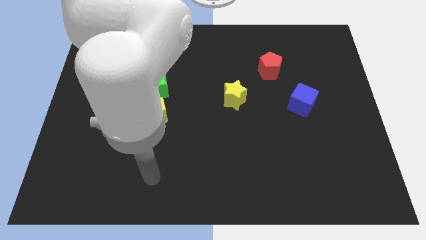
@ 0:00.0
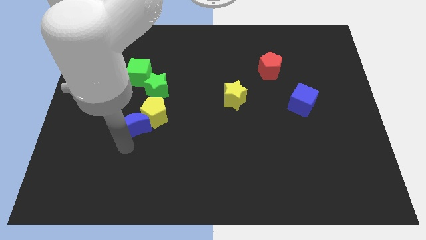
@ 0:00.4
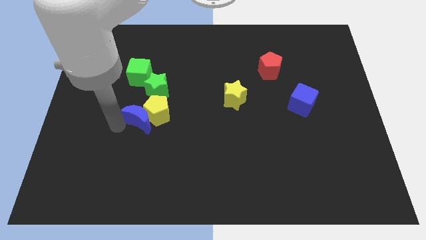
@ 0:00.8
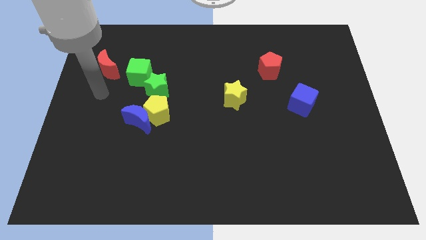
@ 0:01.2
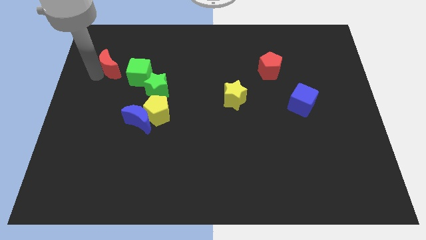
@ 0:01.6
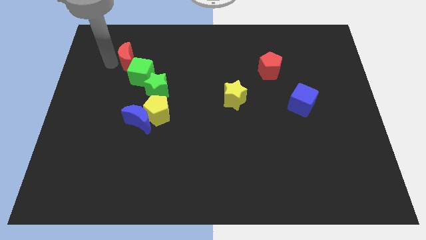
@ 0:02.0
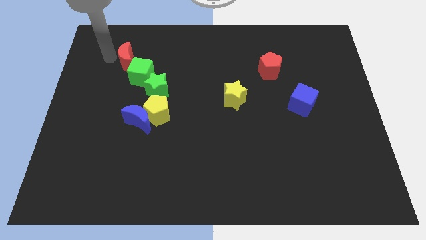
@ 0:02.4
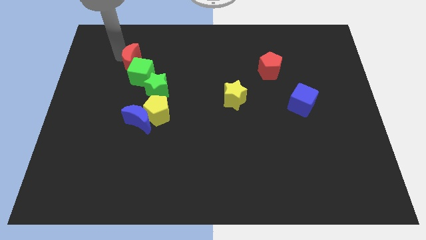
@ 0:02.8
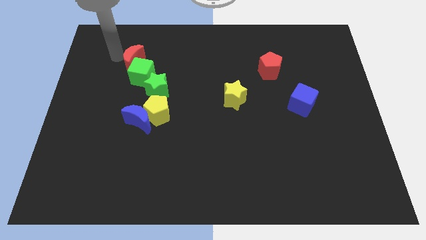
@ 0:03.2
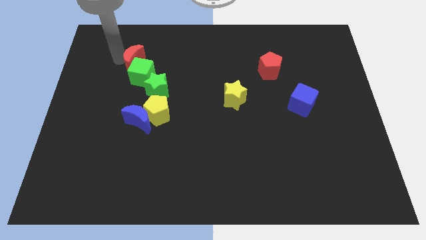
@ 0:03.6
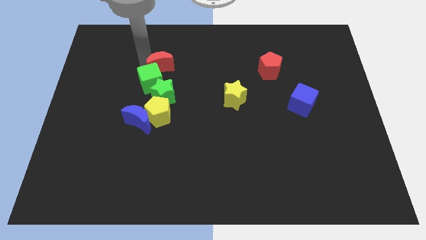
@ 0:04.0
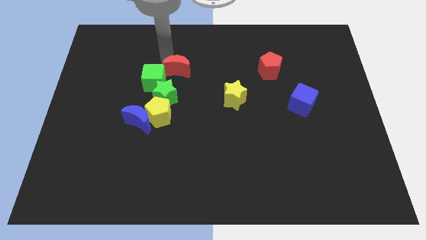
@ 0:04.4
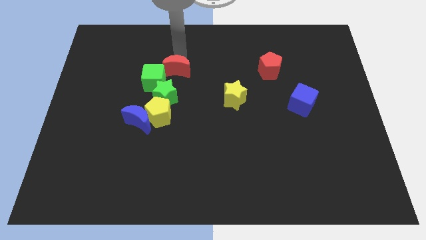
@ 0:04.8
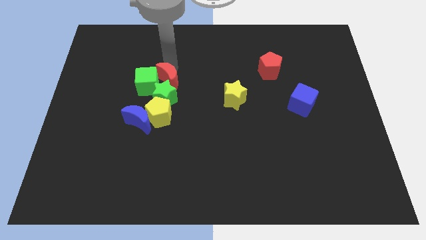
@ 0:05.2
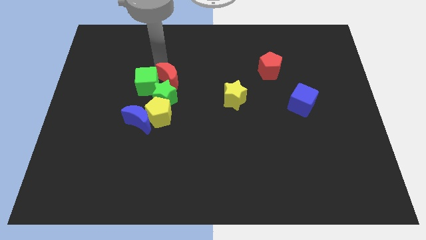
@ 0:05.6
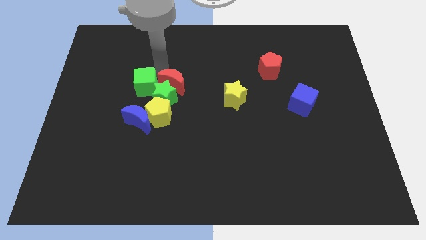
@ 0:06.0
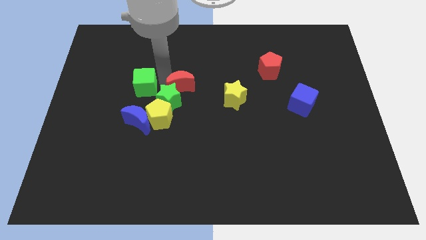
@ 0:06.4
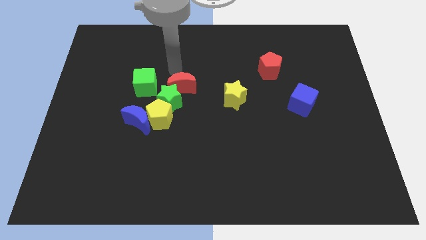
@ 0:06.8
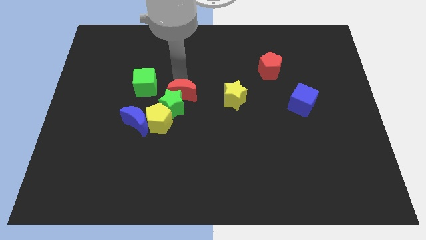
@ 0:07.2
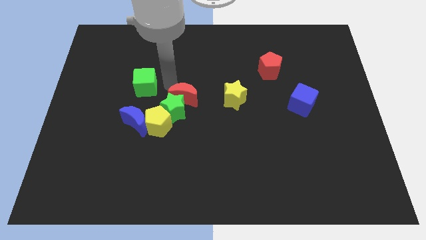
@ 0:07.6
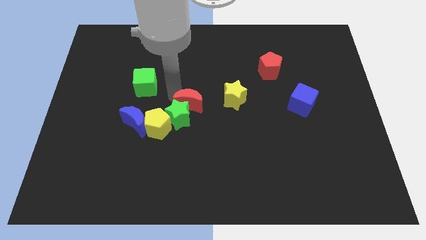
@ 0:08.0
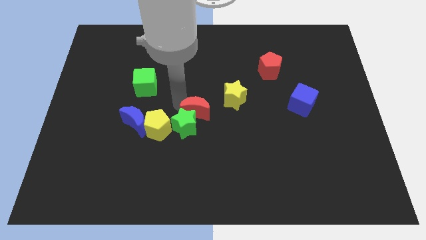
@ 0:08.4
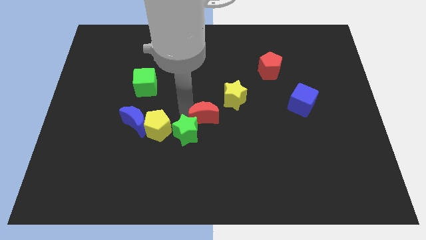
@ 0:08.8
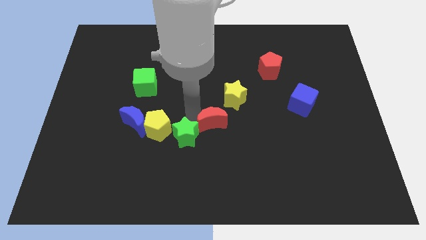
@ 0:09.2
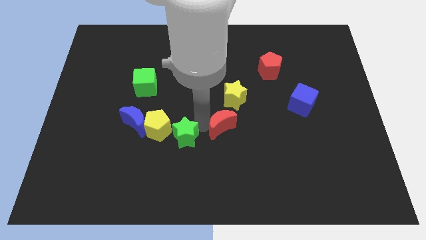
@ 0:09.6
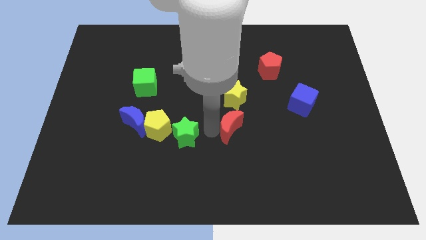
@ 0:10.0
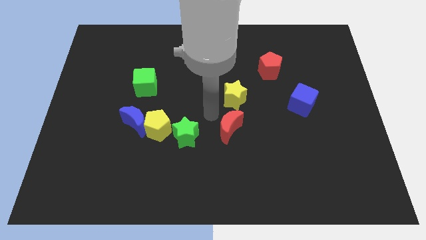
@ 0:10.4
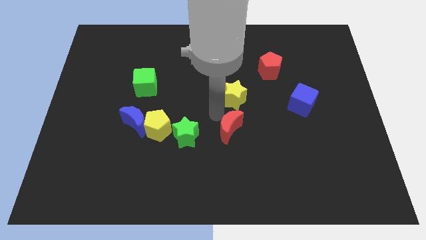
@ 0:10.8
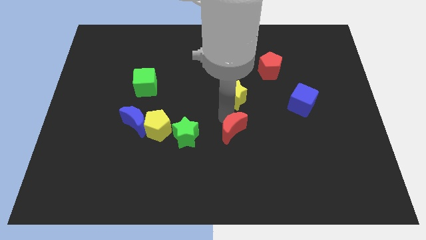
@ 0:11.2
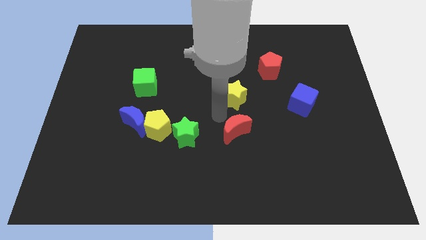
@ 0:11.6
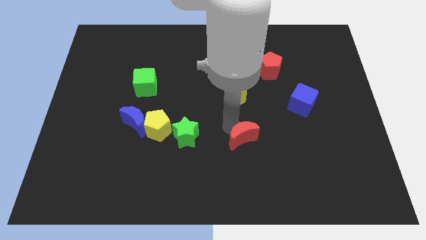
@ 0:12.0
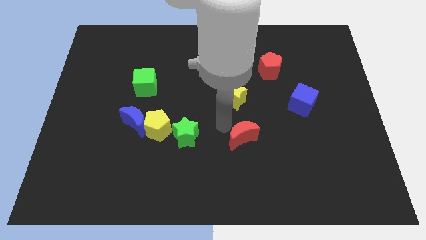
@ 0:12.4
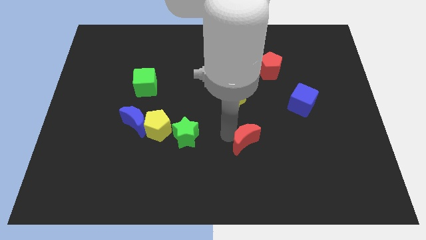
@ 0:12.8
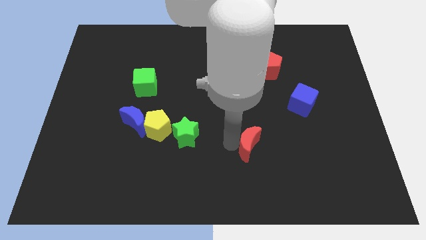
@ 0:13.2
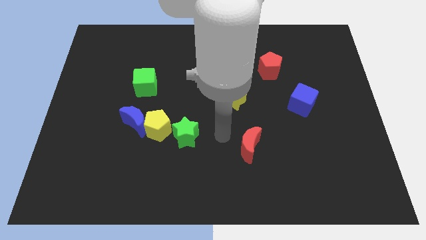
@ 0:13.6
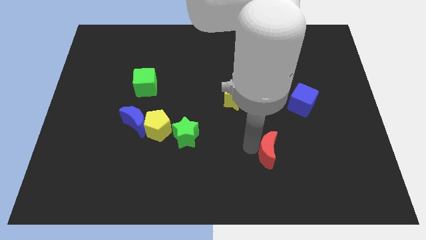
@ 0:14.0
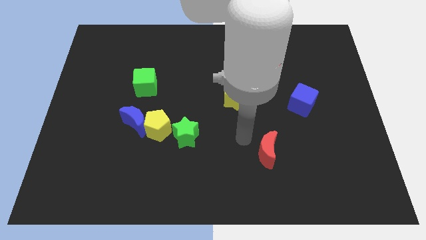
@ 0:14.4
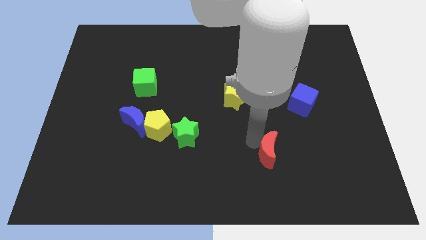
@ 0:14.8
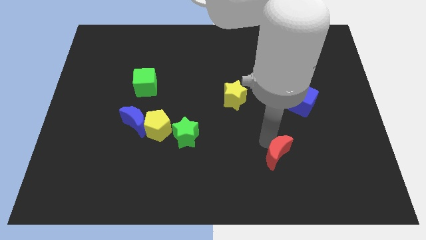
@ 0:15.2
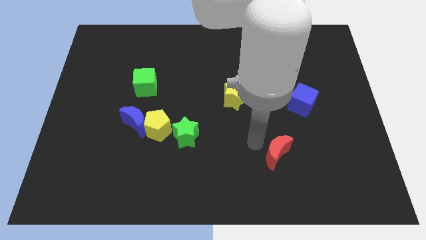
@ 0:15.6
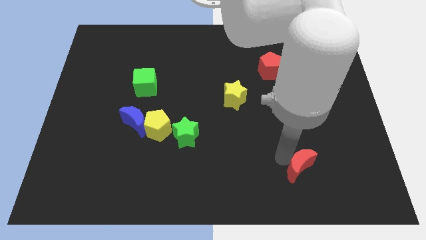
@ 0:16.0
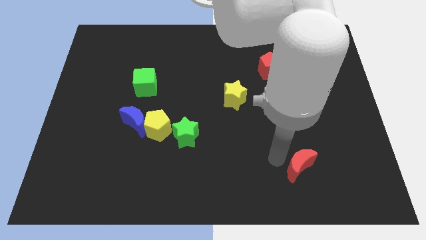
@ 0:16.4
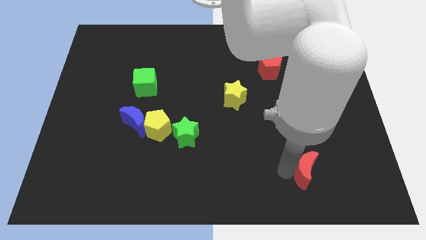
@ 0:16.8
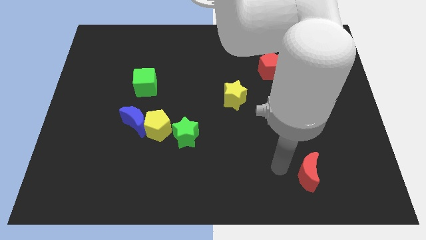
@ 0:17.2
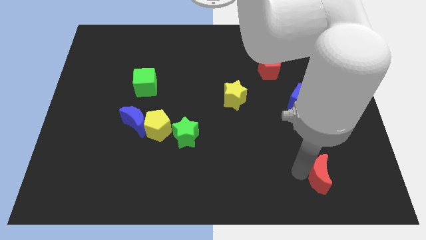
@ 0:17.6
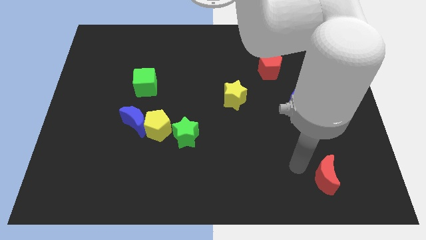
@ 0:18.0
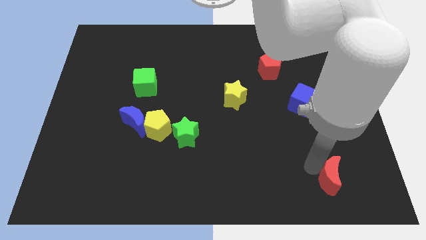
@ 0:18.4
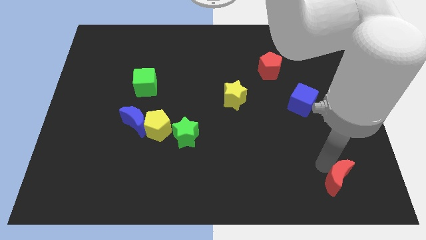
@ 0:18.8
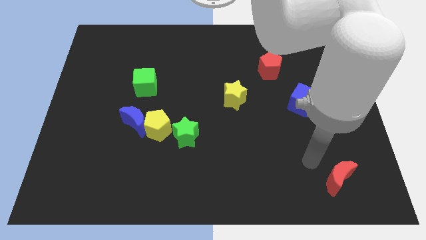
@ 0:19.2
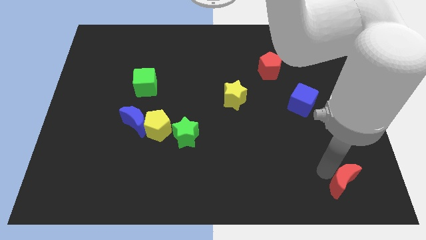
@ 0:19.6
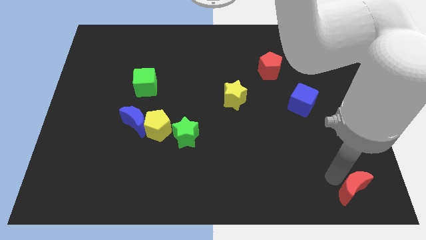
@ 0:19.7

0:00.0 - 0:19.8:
move the red moon to the lower right corner
